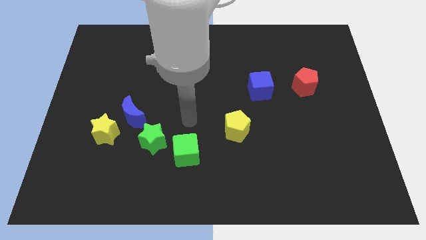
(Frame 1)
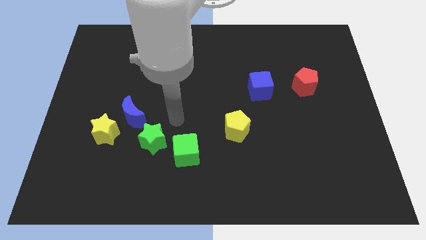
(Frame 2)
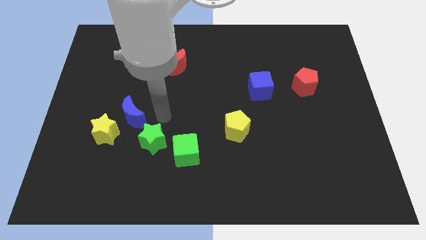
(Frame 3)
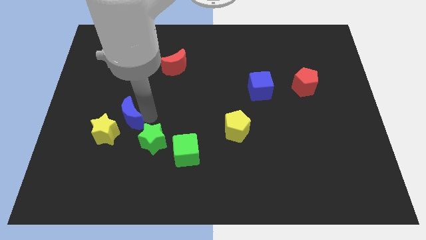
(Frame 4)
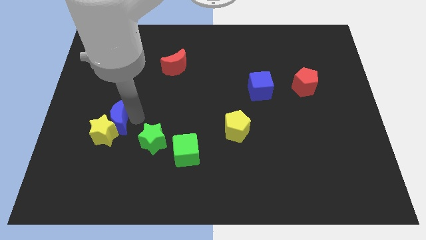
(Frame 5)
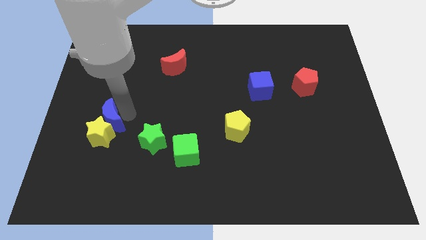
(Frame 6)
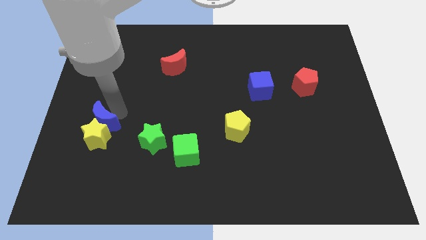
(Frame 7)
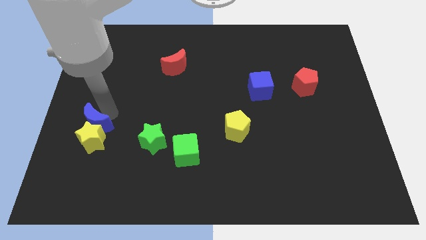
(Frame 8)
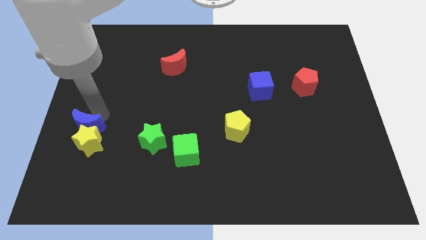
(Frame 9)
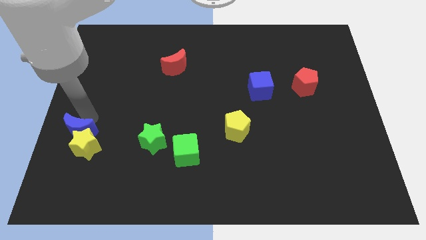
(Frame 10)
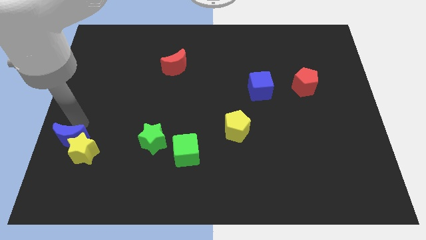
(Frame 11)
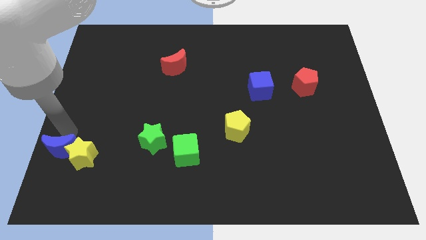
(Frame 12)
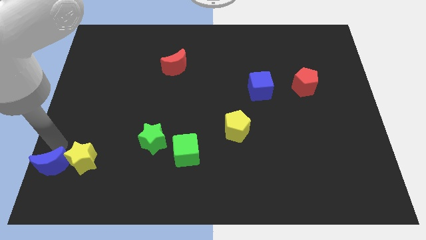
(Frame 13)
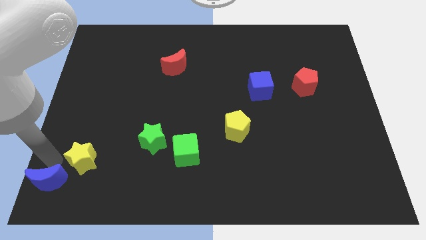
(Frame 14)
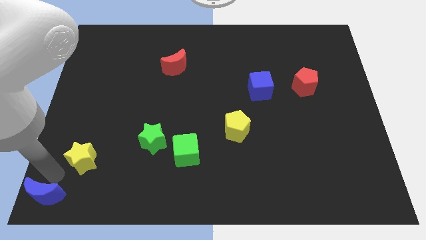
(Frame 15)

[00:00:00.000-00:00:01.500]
separate the yellow star from the blue moon

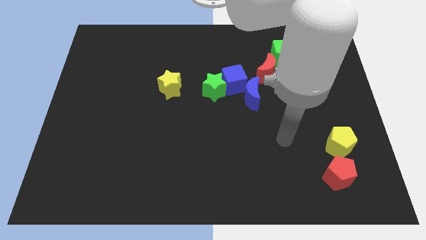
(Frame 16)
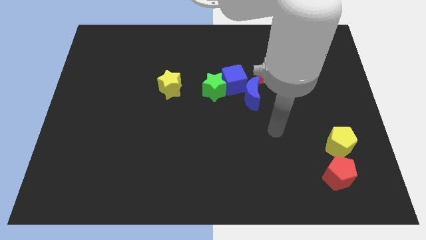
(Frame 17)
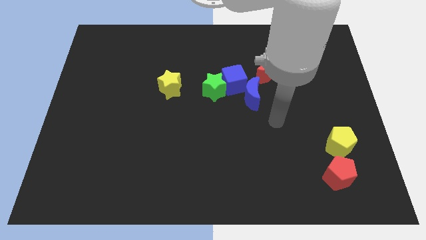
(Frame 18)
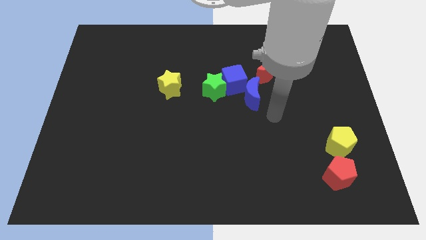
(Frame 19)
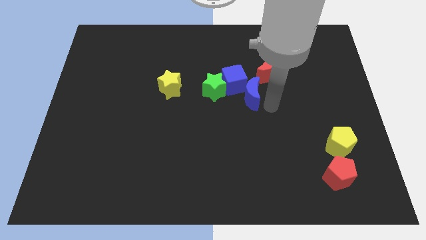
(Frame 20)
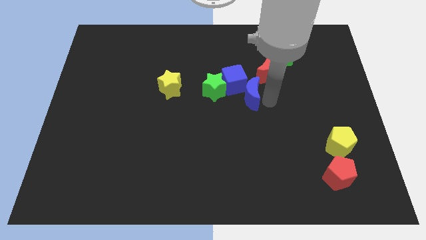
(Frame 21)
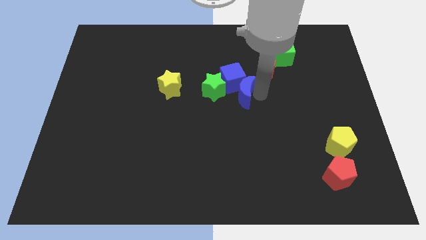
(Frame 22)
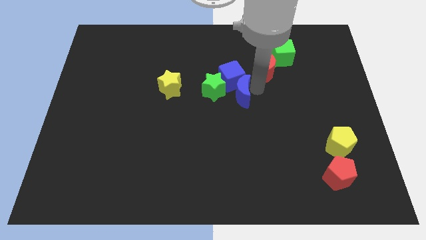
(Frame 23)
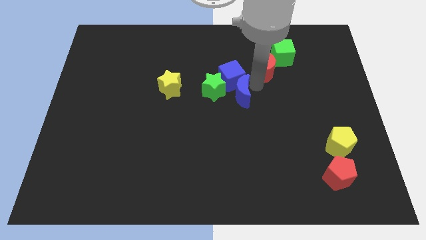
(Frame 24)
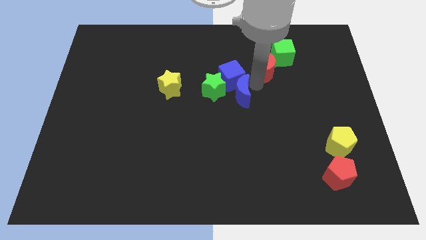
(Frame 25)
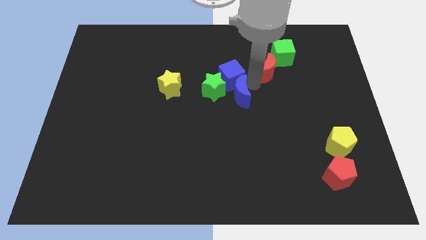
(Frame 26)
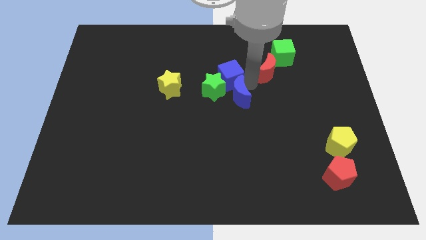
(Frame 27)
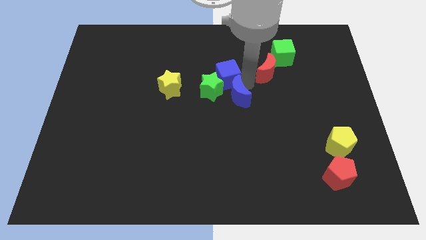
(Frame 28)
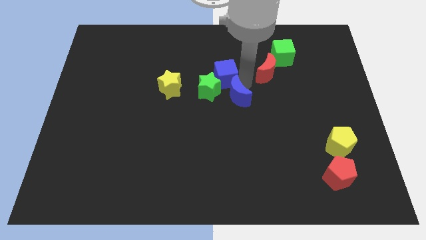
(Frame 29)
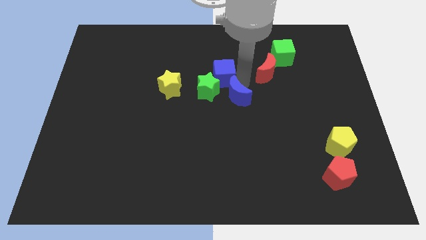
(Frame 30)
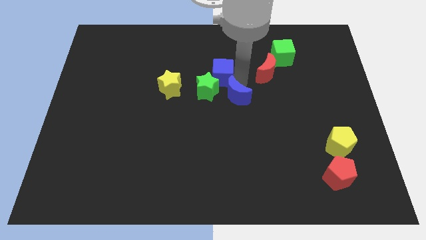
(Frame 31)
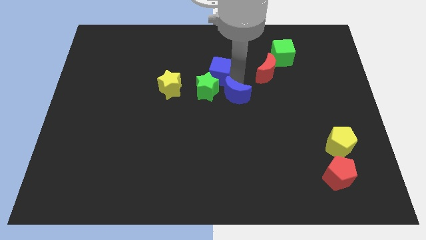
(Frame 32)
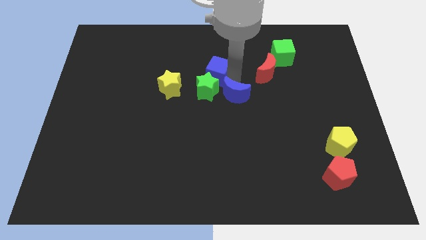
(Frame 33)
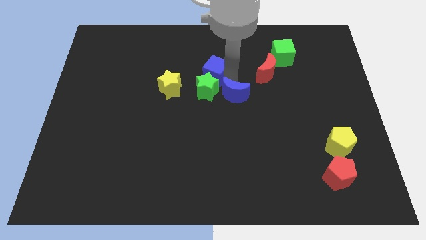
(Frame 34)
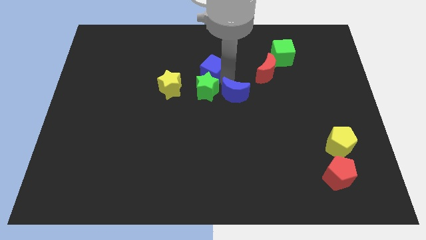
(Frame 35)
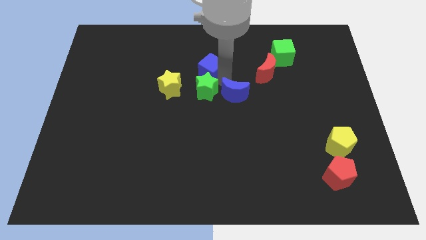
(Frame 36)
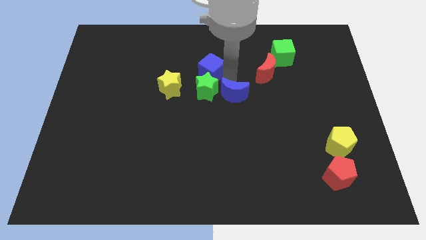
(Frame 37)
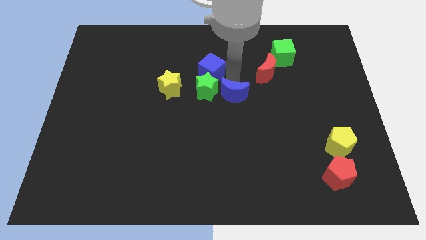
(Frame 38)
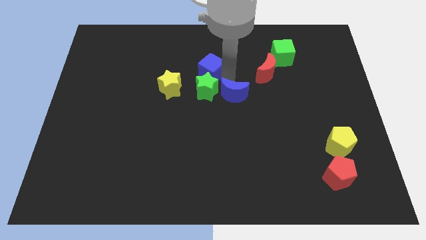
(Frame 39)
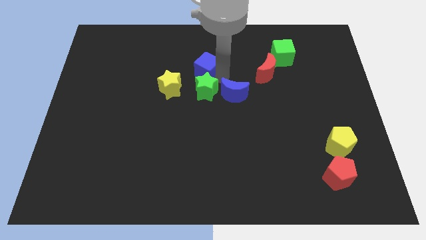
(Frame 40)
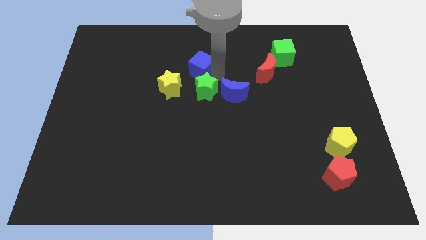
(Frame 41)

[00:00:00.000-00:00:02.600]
separate the blue cube from the clump

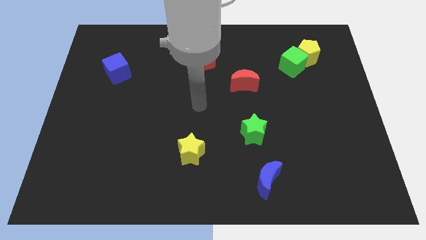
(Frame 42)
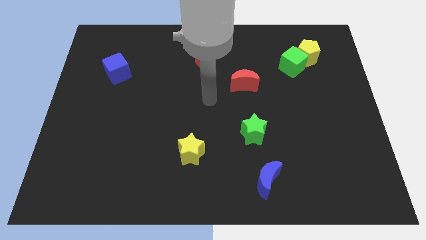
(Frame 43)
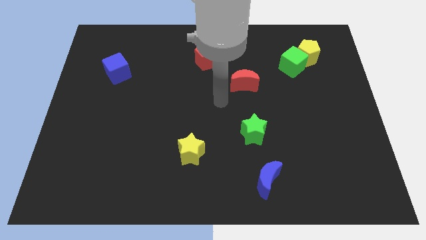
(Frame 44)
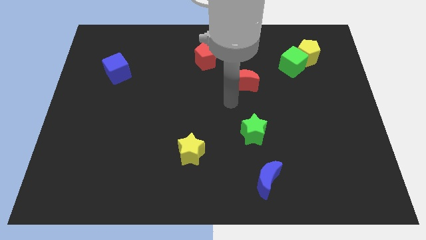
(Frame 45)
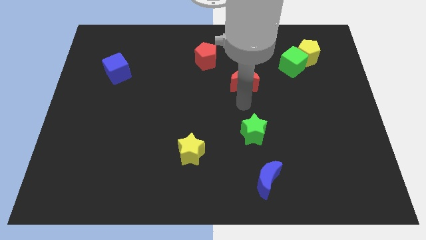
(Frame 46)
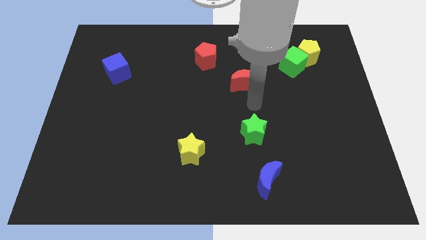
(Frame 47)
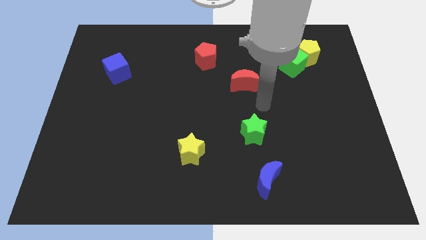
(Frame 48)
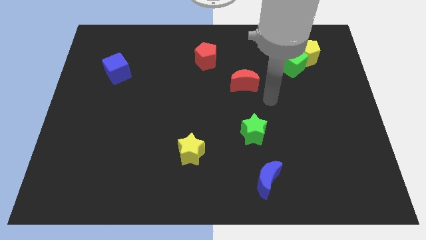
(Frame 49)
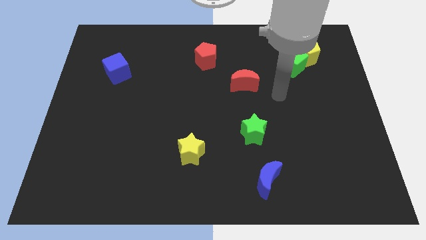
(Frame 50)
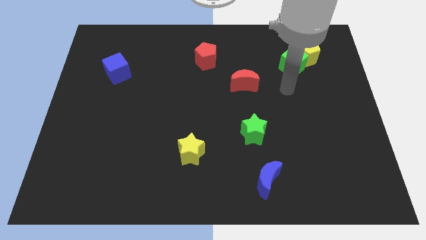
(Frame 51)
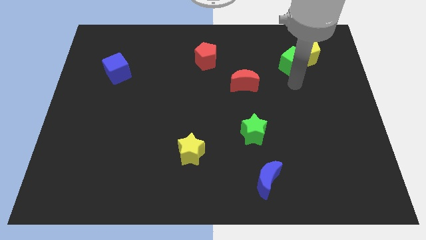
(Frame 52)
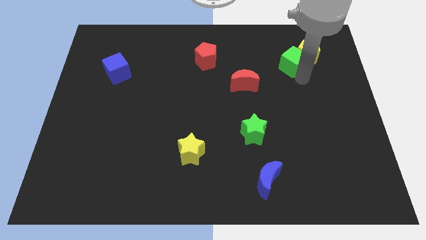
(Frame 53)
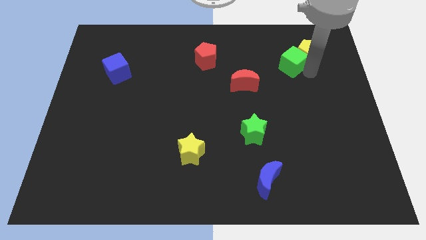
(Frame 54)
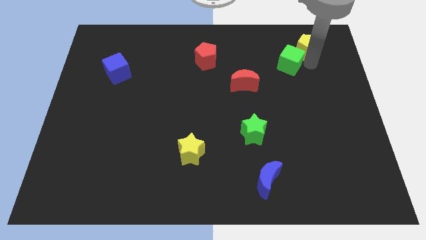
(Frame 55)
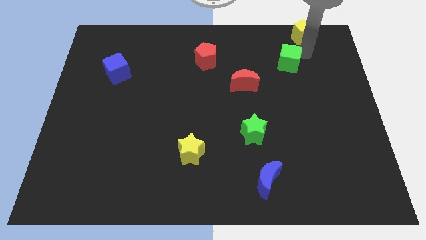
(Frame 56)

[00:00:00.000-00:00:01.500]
pull the green cube apart from the yellow pentagon

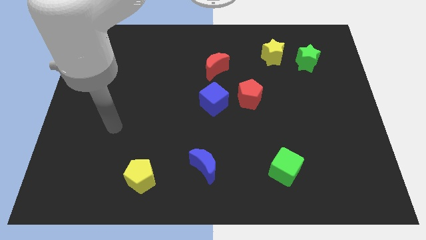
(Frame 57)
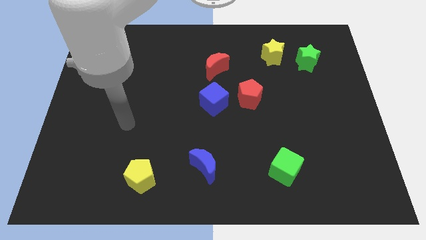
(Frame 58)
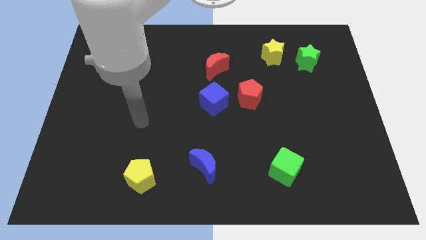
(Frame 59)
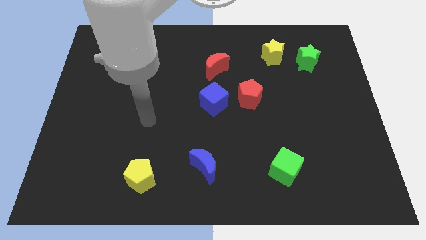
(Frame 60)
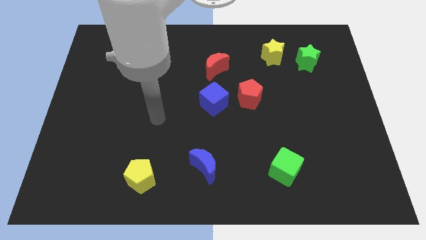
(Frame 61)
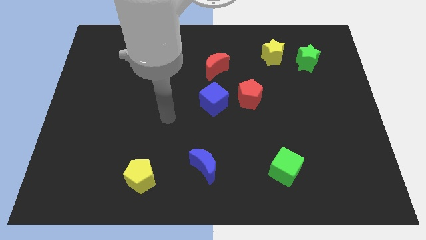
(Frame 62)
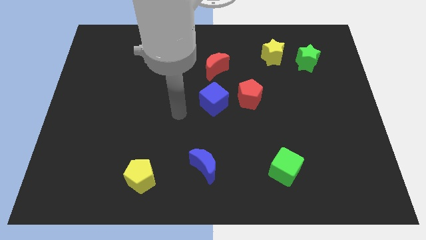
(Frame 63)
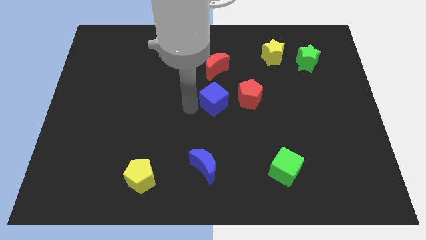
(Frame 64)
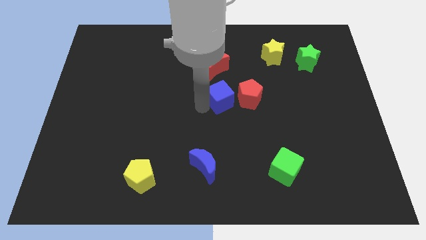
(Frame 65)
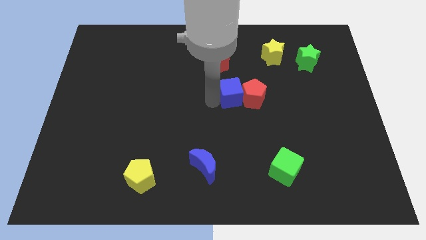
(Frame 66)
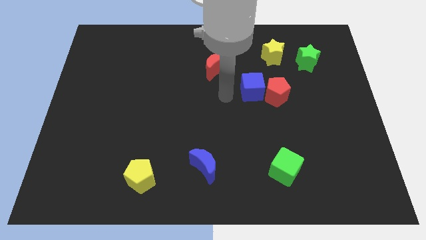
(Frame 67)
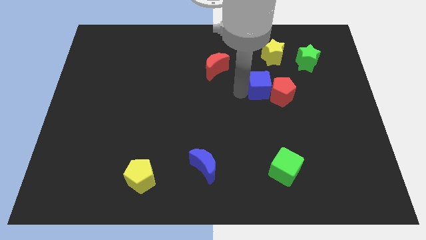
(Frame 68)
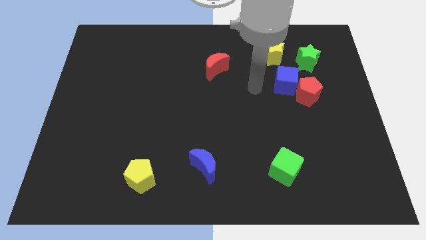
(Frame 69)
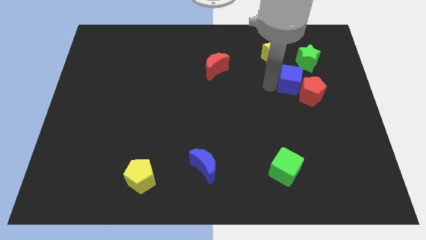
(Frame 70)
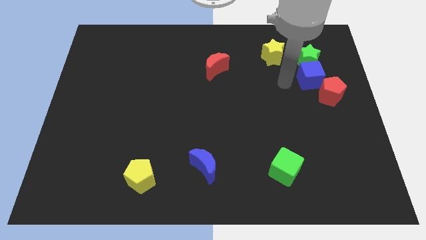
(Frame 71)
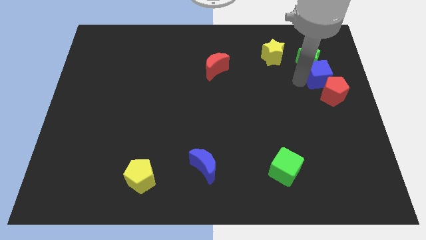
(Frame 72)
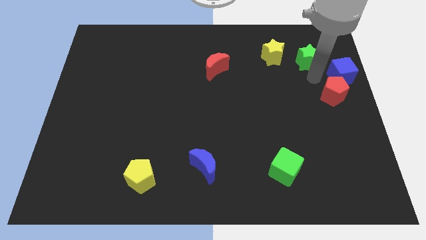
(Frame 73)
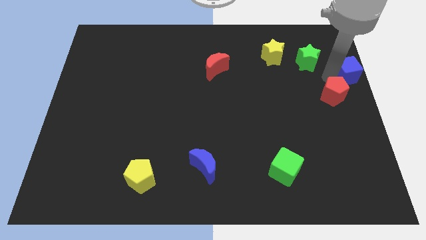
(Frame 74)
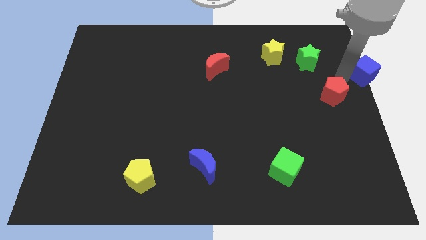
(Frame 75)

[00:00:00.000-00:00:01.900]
pull the red pentagon apart from the blue cube

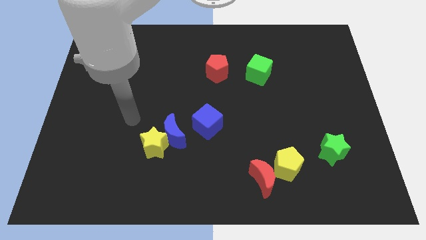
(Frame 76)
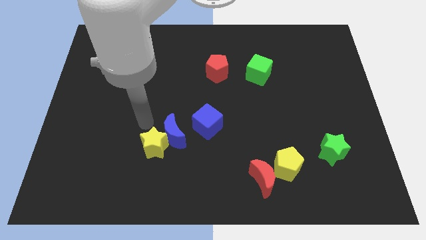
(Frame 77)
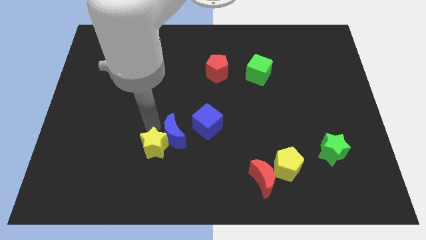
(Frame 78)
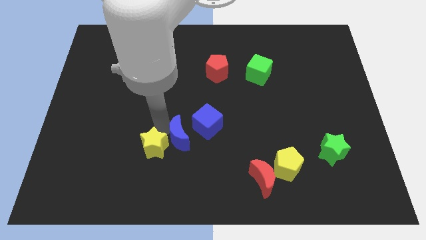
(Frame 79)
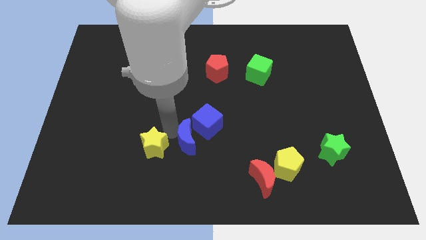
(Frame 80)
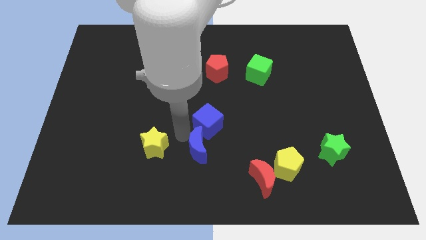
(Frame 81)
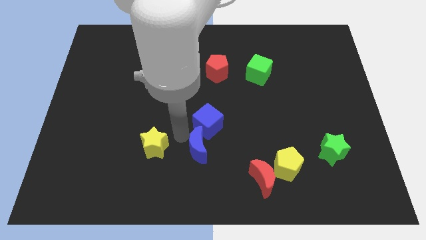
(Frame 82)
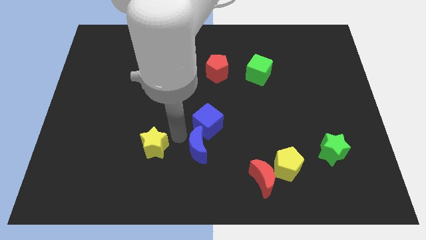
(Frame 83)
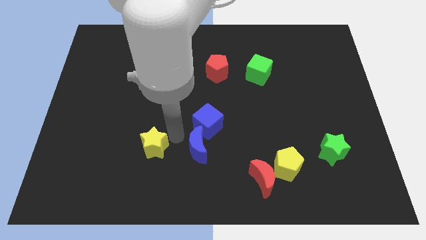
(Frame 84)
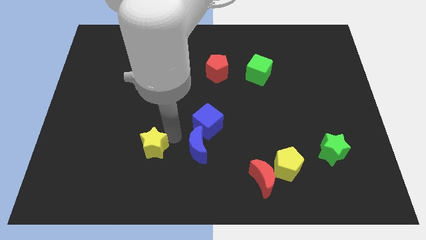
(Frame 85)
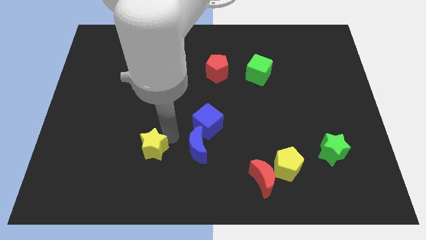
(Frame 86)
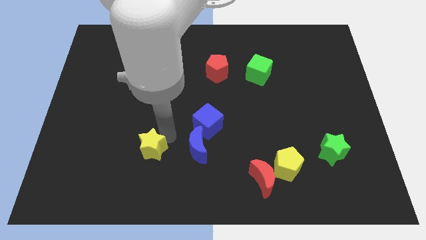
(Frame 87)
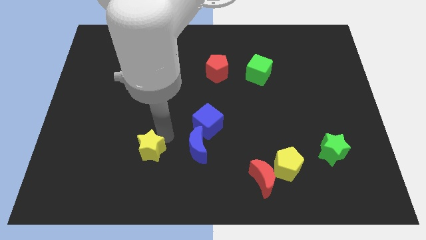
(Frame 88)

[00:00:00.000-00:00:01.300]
move the yellow star away from the blue moon

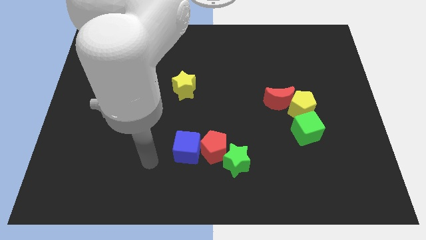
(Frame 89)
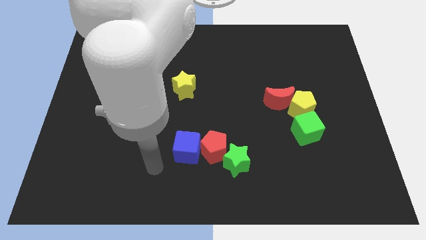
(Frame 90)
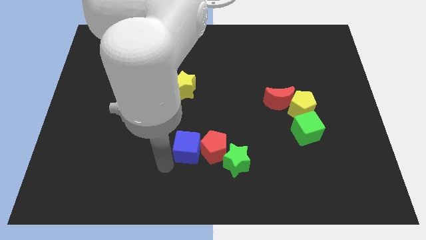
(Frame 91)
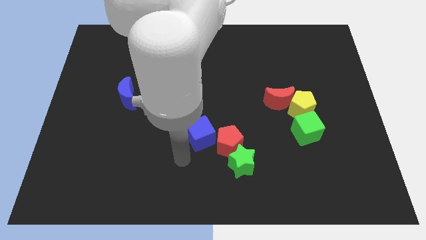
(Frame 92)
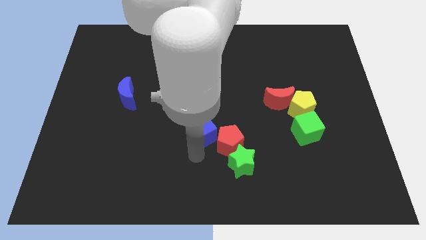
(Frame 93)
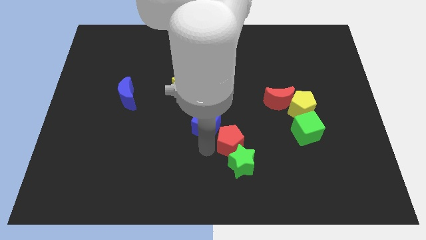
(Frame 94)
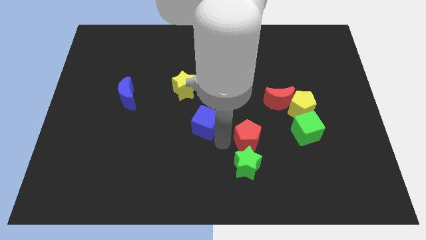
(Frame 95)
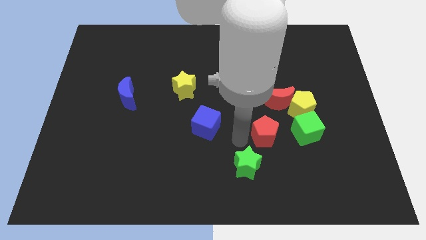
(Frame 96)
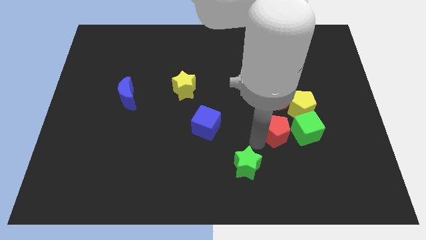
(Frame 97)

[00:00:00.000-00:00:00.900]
move the green star away from the red pentagon
